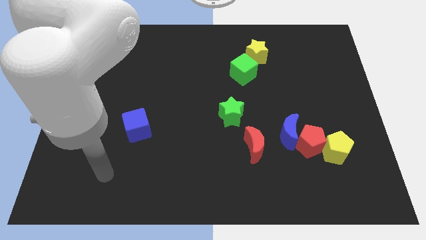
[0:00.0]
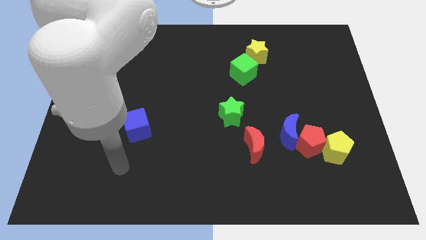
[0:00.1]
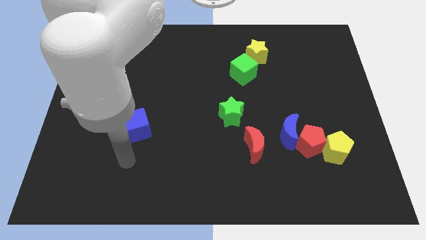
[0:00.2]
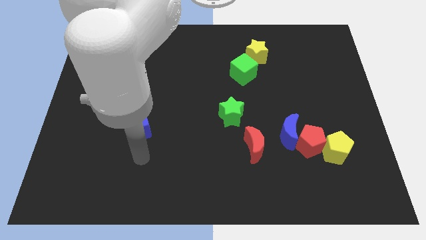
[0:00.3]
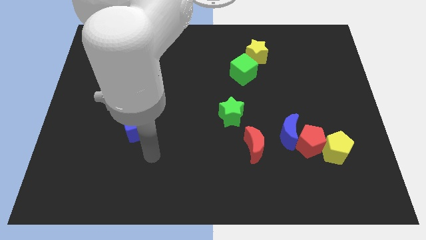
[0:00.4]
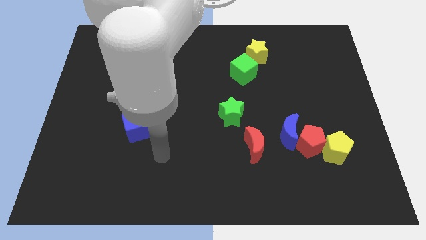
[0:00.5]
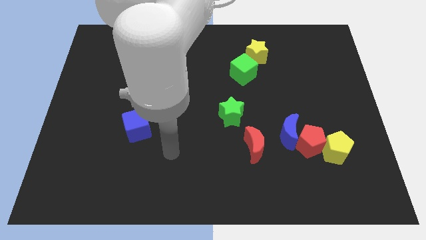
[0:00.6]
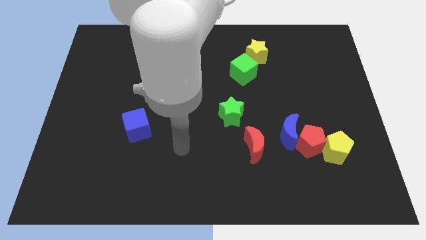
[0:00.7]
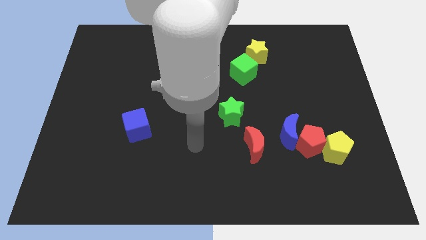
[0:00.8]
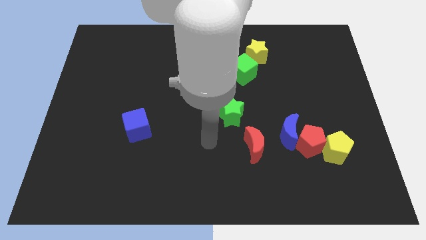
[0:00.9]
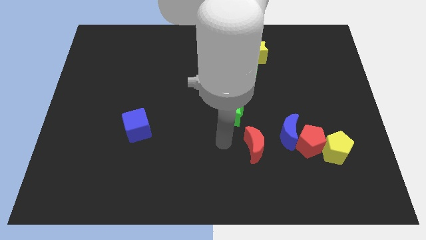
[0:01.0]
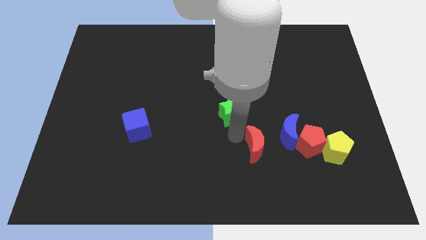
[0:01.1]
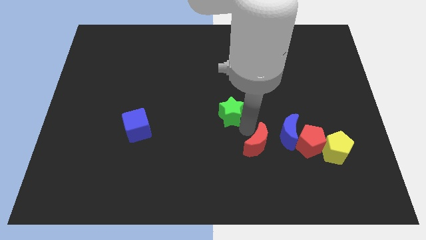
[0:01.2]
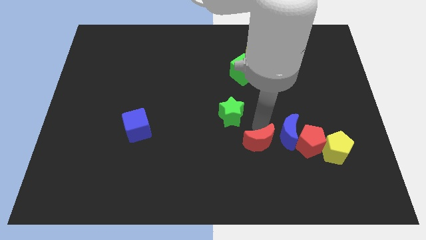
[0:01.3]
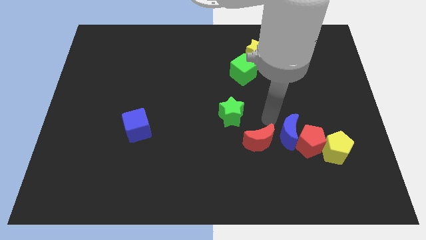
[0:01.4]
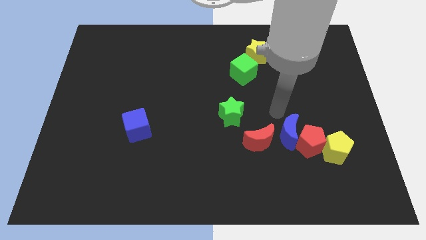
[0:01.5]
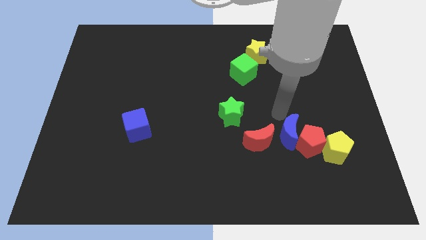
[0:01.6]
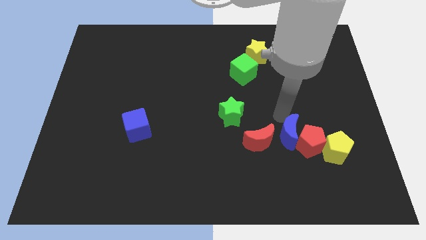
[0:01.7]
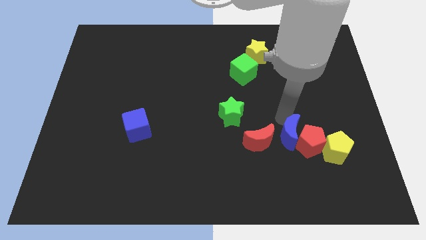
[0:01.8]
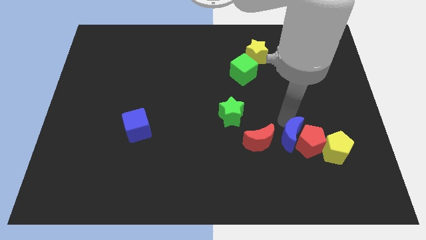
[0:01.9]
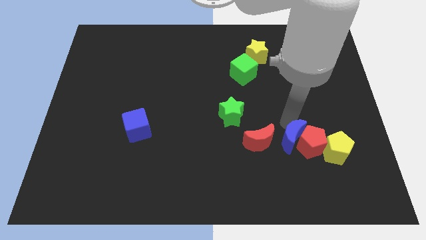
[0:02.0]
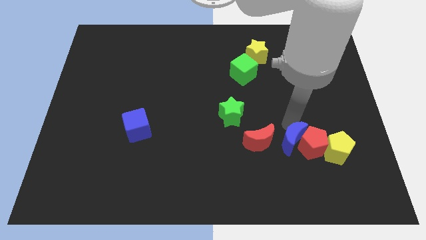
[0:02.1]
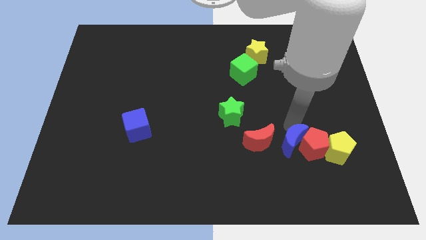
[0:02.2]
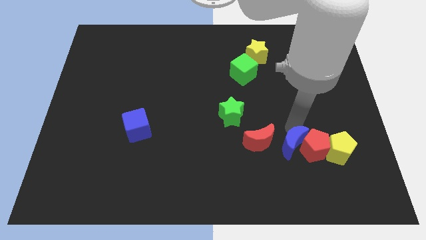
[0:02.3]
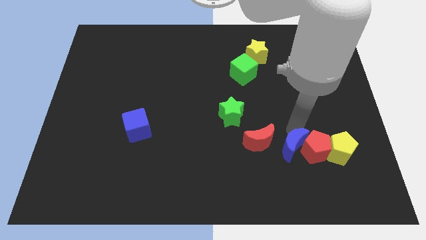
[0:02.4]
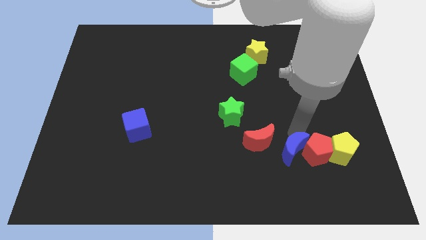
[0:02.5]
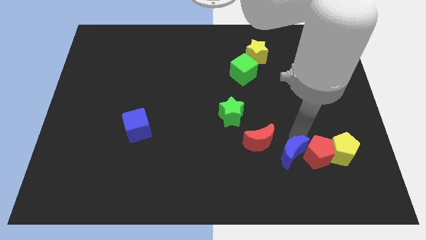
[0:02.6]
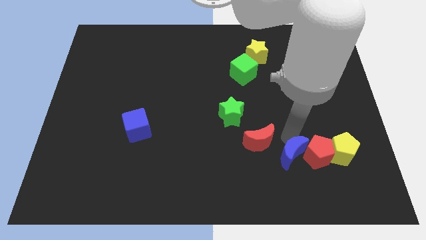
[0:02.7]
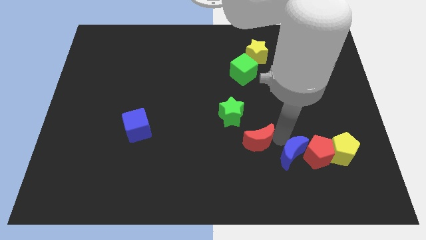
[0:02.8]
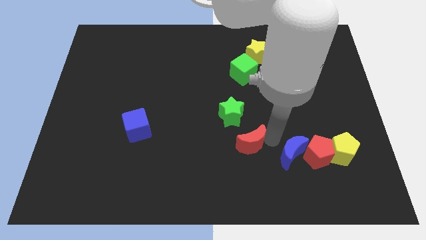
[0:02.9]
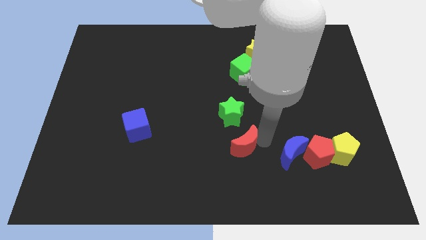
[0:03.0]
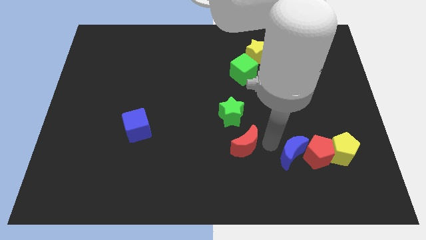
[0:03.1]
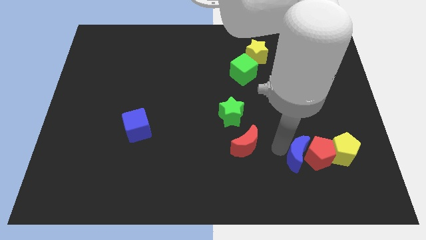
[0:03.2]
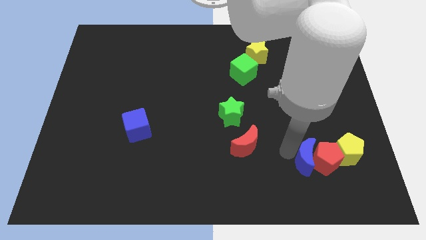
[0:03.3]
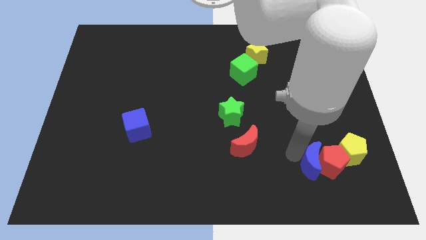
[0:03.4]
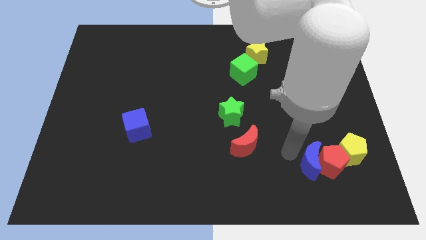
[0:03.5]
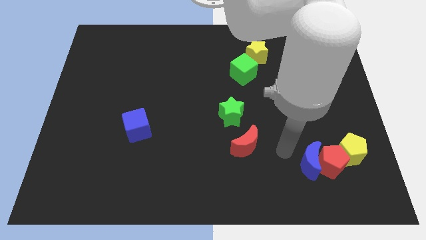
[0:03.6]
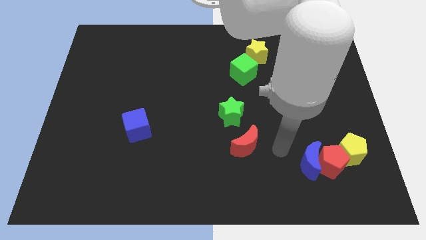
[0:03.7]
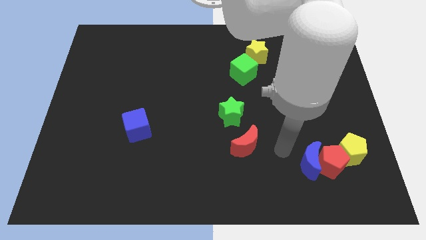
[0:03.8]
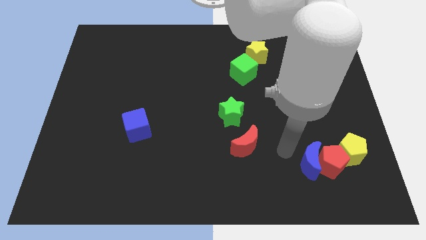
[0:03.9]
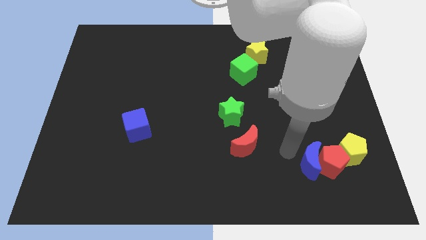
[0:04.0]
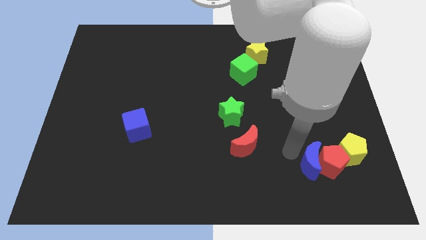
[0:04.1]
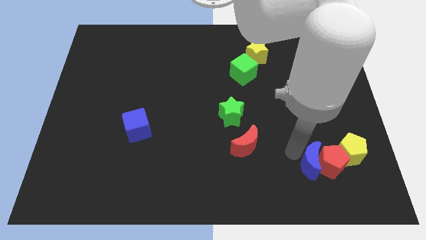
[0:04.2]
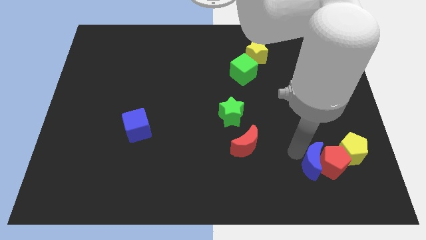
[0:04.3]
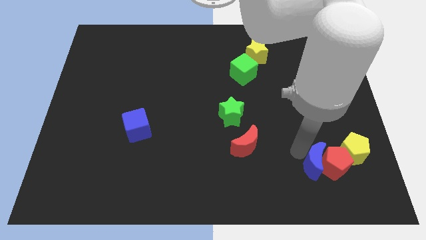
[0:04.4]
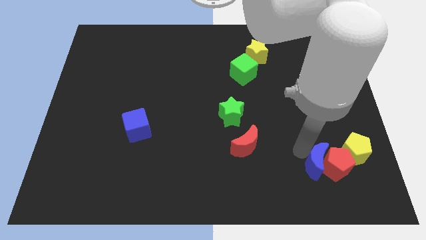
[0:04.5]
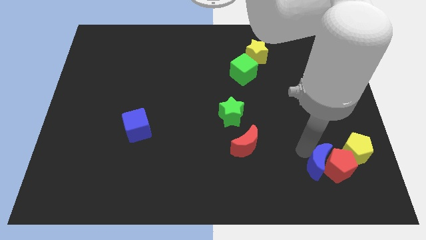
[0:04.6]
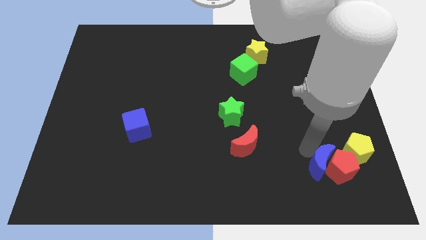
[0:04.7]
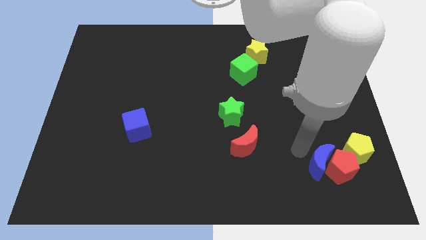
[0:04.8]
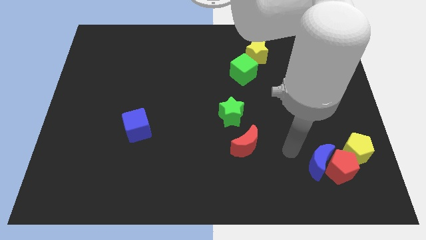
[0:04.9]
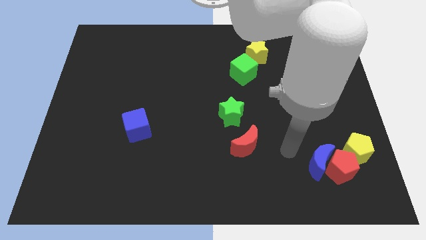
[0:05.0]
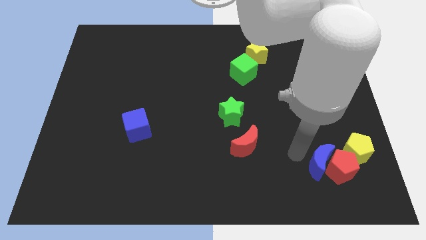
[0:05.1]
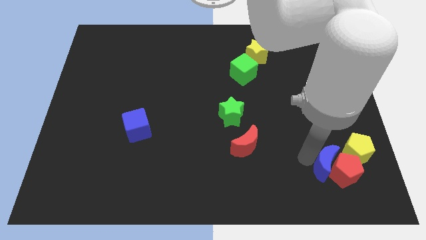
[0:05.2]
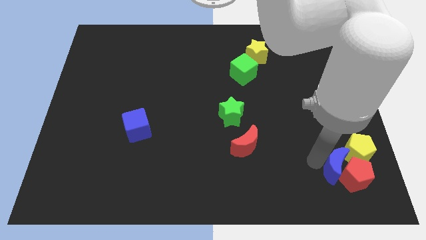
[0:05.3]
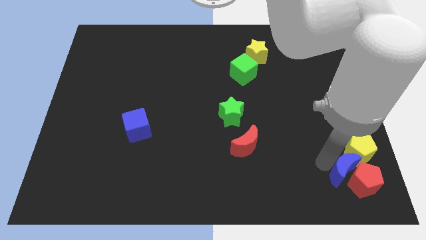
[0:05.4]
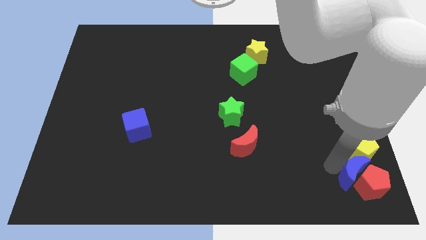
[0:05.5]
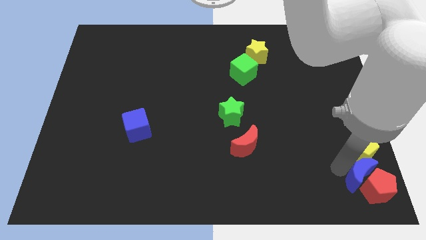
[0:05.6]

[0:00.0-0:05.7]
move the blue moon to the bottom right
